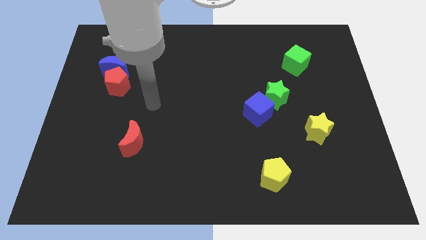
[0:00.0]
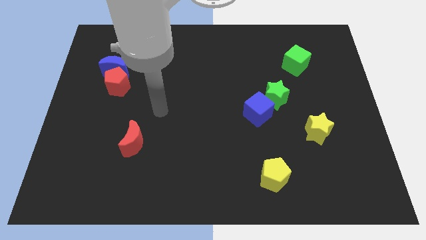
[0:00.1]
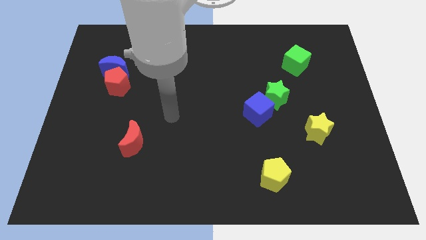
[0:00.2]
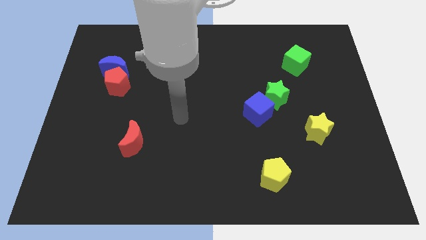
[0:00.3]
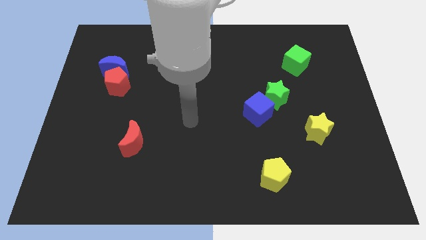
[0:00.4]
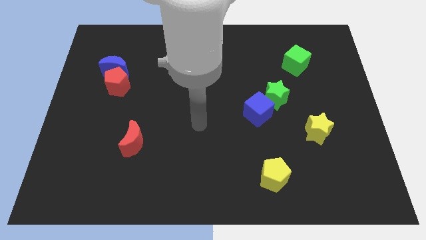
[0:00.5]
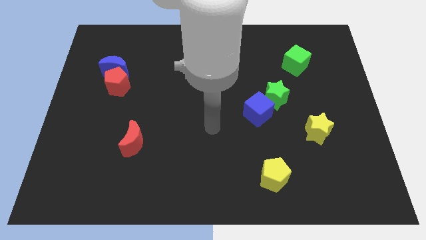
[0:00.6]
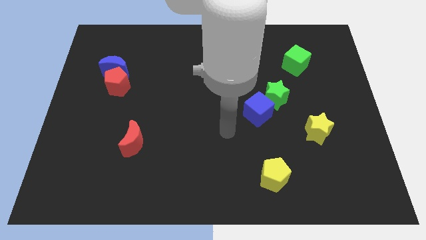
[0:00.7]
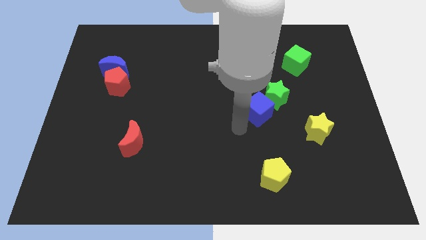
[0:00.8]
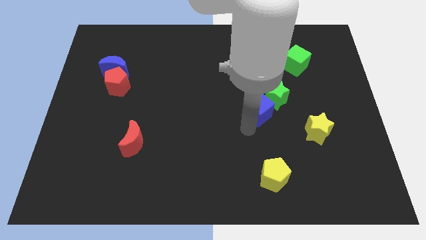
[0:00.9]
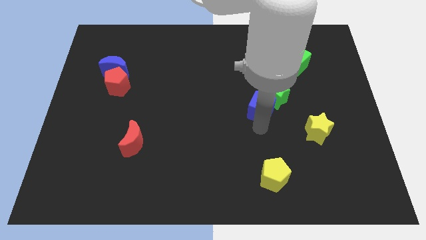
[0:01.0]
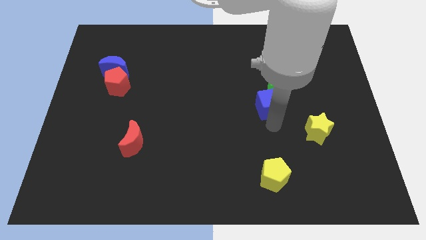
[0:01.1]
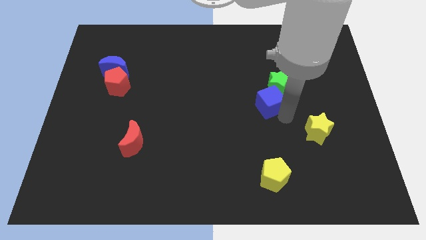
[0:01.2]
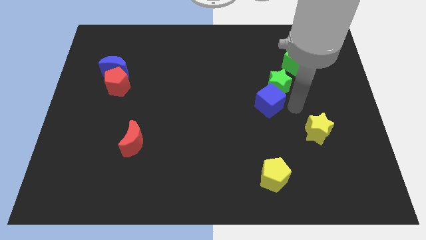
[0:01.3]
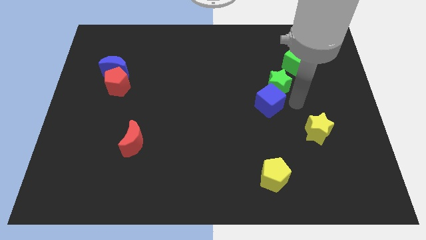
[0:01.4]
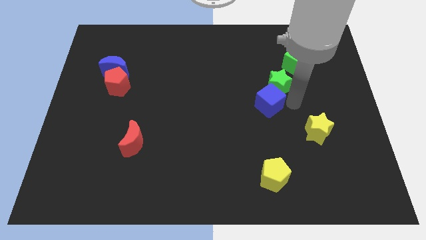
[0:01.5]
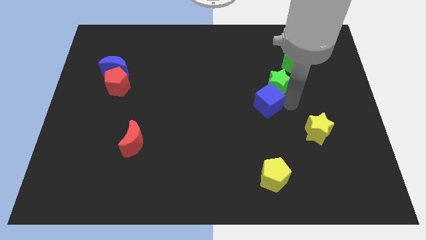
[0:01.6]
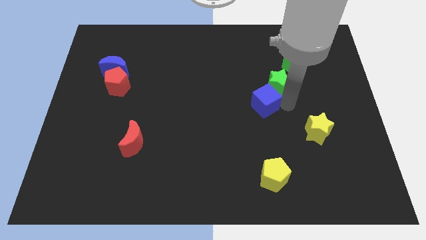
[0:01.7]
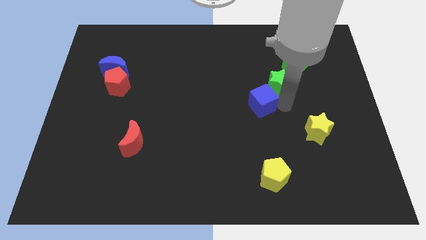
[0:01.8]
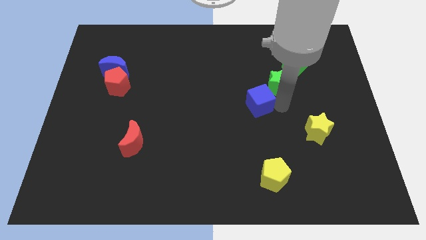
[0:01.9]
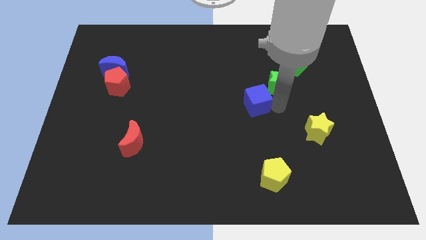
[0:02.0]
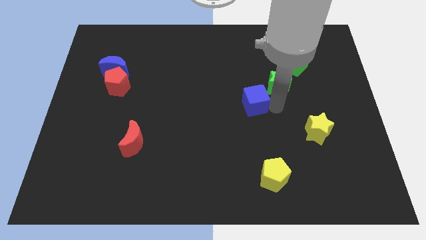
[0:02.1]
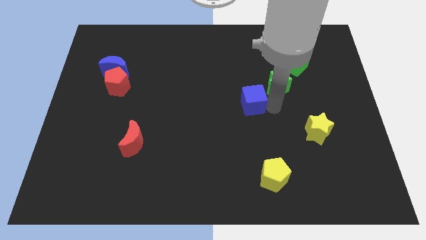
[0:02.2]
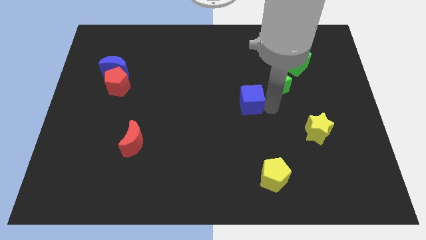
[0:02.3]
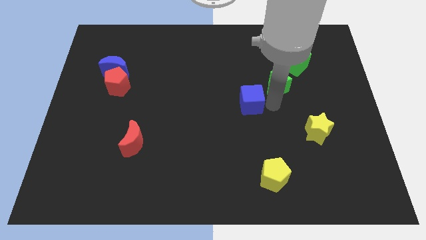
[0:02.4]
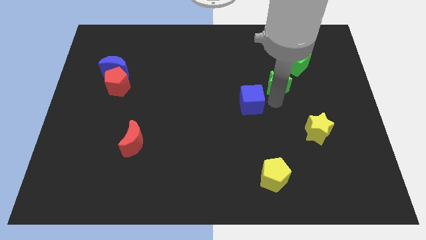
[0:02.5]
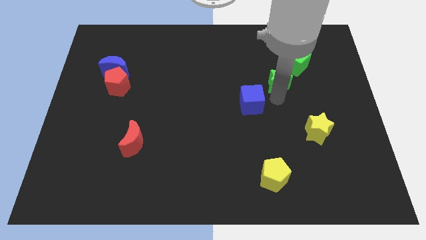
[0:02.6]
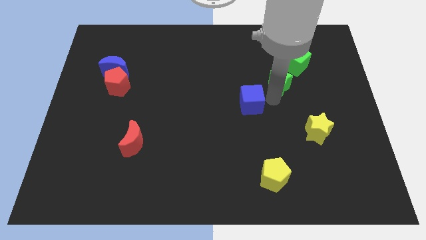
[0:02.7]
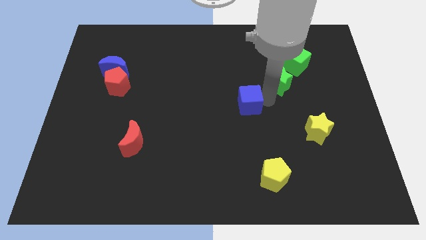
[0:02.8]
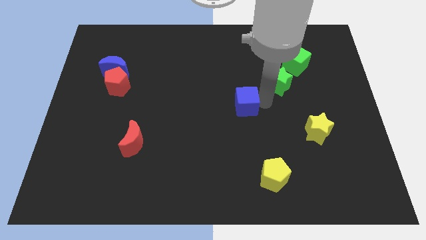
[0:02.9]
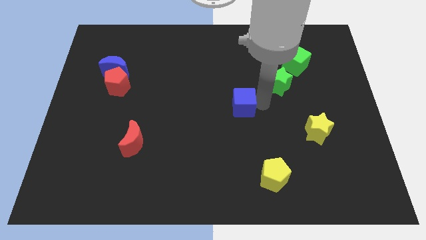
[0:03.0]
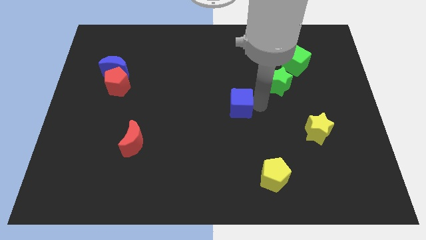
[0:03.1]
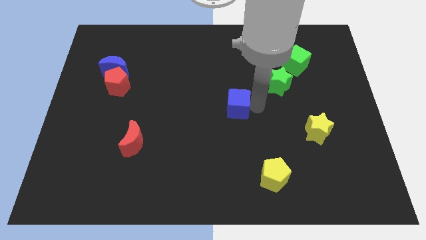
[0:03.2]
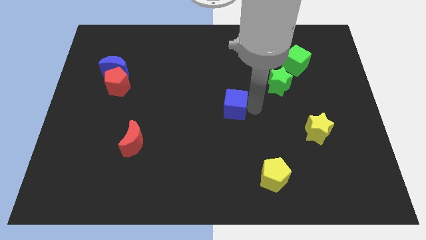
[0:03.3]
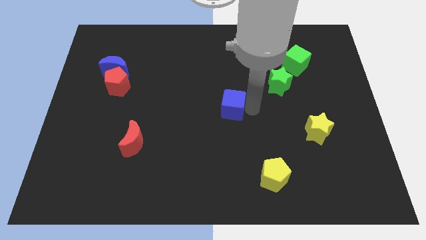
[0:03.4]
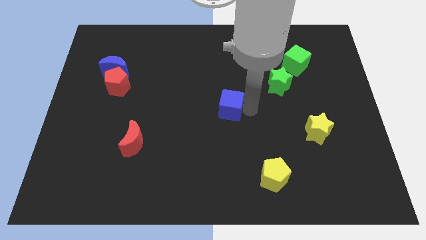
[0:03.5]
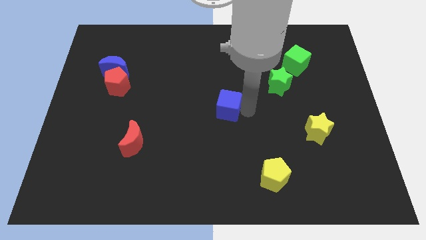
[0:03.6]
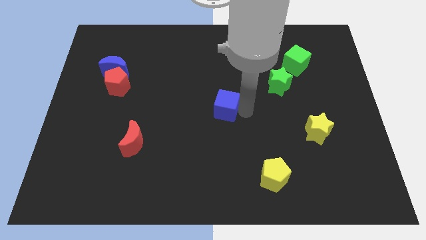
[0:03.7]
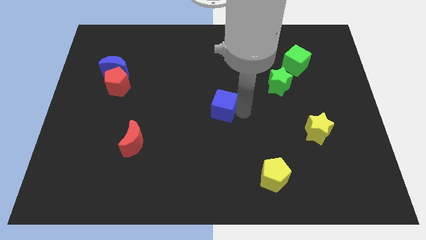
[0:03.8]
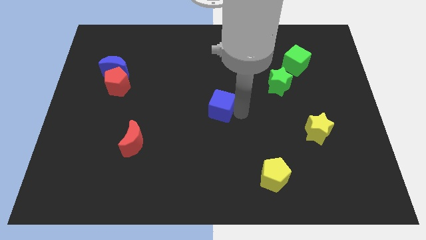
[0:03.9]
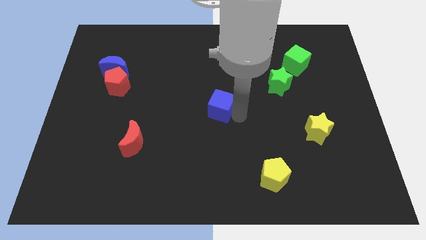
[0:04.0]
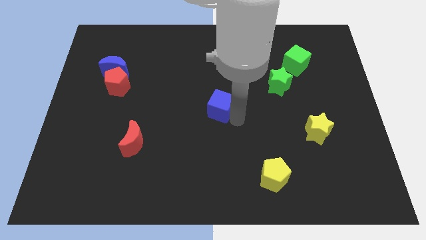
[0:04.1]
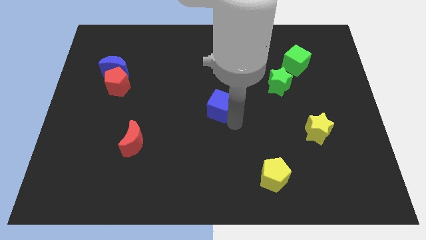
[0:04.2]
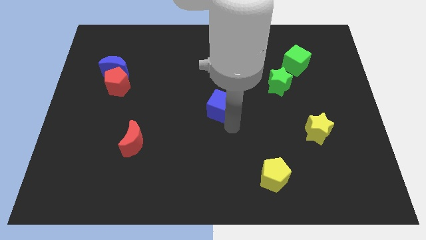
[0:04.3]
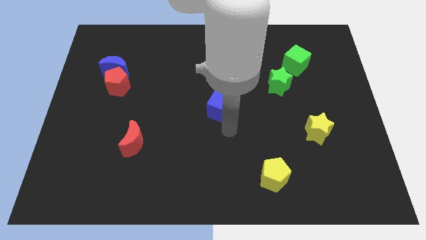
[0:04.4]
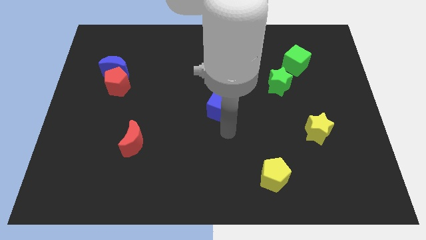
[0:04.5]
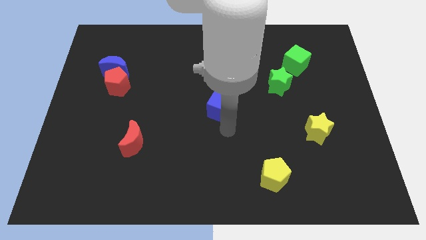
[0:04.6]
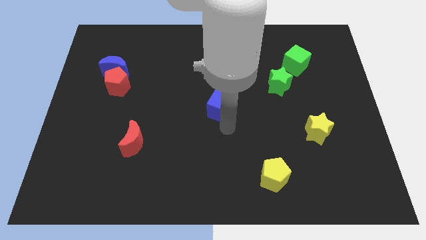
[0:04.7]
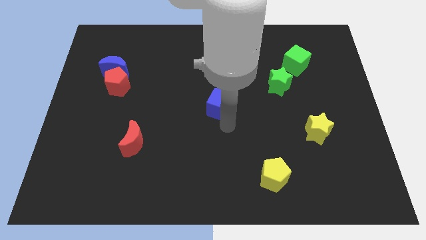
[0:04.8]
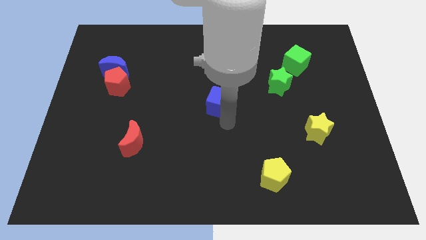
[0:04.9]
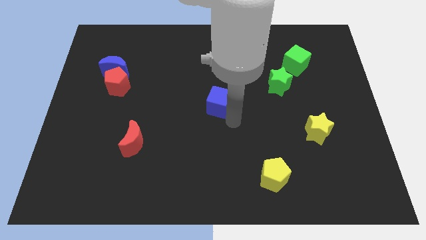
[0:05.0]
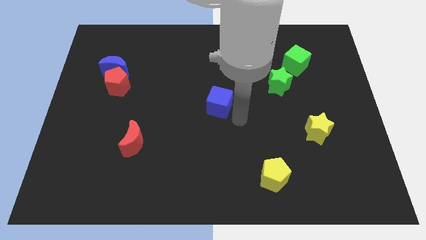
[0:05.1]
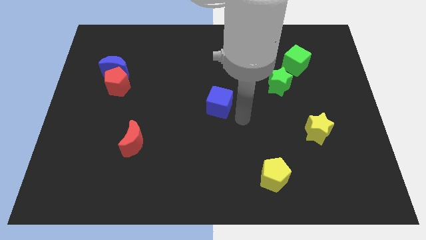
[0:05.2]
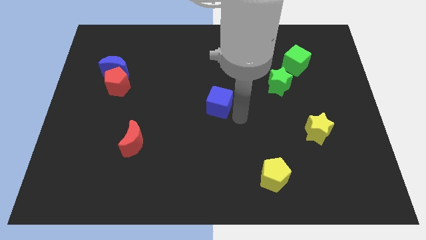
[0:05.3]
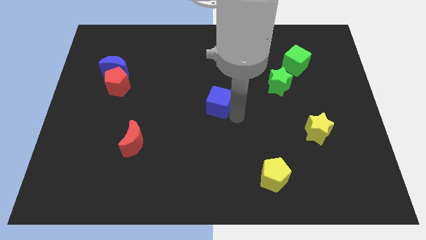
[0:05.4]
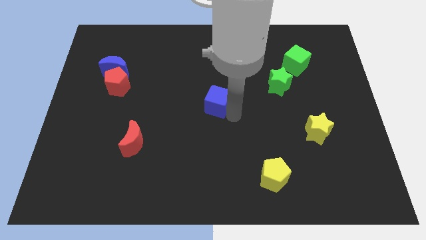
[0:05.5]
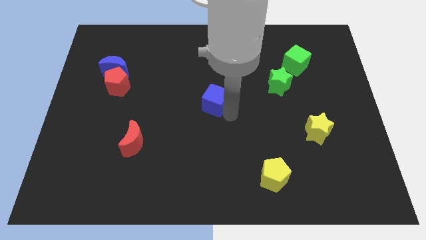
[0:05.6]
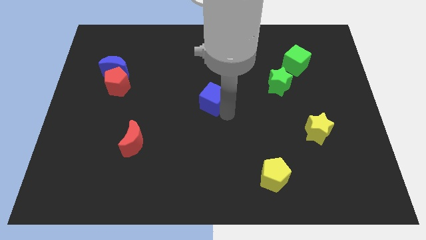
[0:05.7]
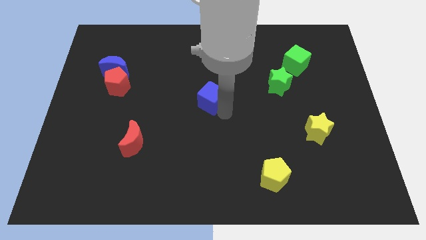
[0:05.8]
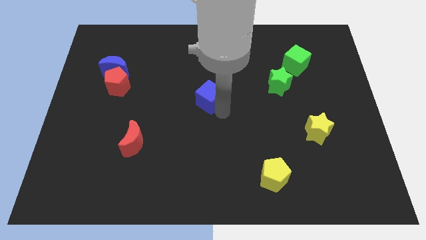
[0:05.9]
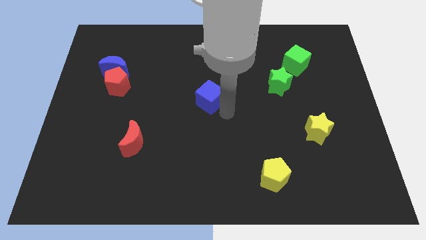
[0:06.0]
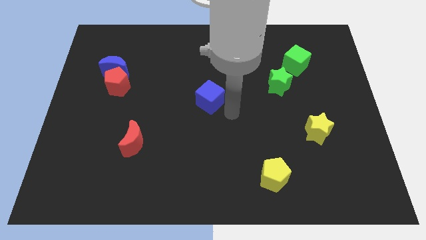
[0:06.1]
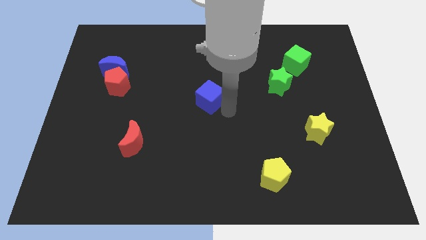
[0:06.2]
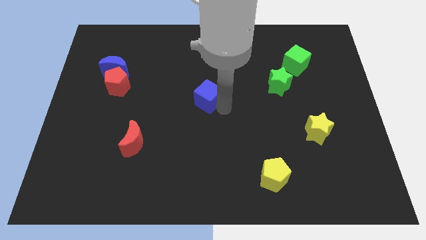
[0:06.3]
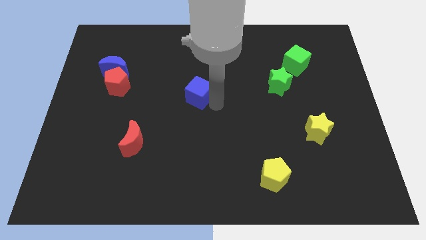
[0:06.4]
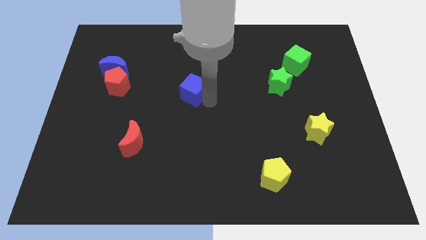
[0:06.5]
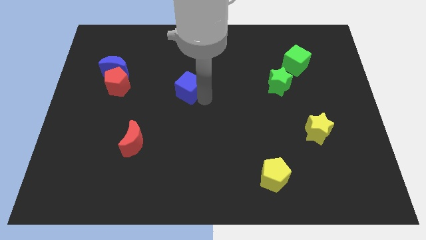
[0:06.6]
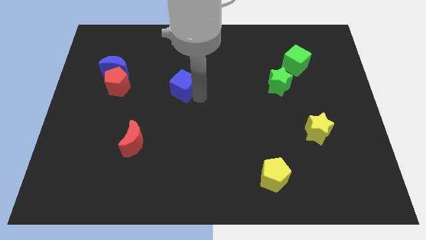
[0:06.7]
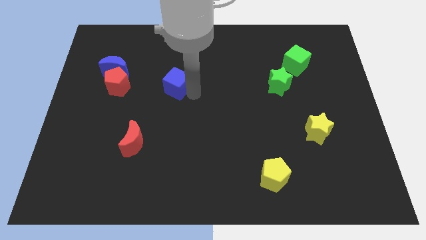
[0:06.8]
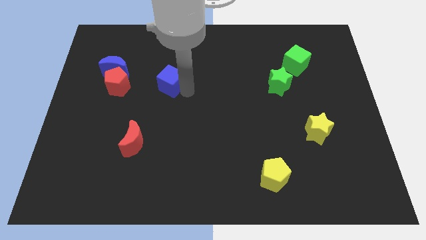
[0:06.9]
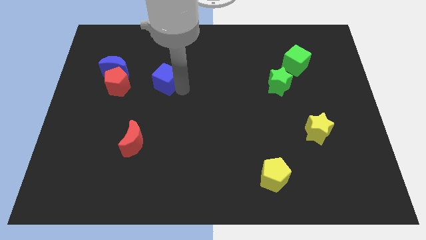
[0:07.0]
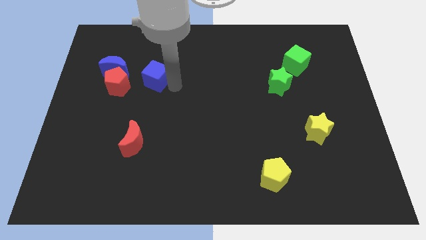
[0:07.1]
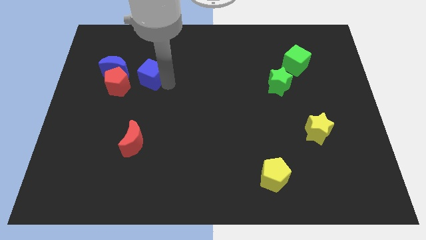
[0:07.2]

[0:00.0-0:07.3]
put the blue cube to the top right of the red pentagon

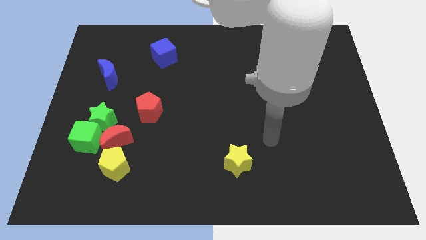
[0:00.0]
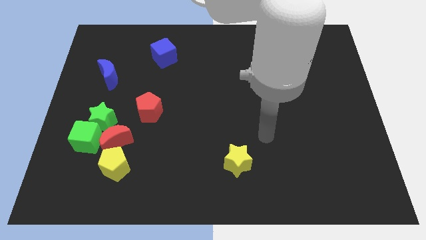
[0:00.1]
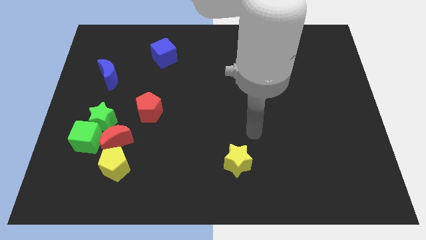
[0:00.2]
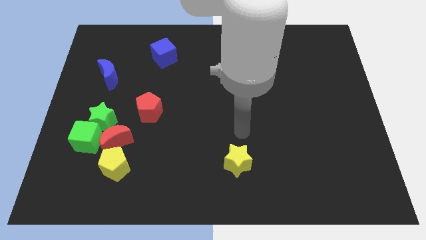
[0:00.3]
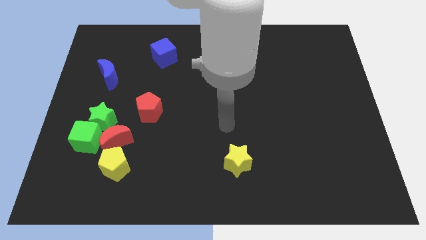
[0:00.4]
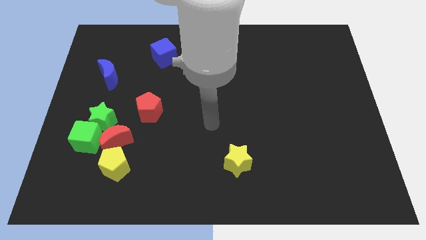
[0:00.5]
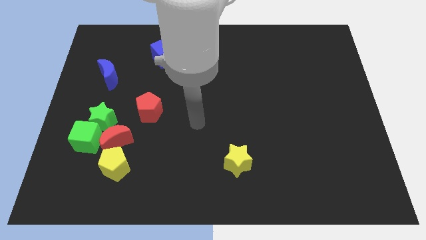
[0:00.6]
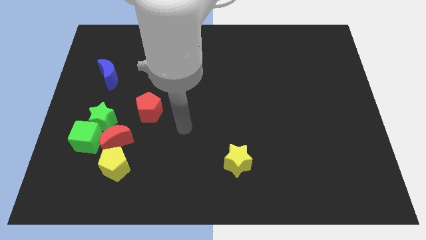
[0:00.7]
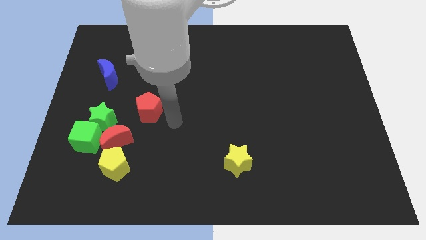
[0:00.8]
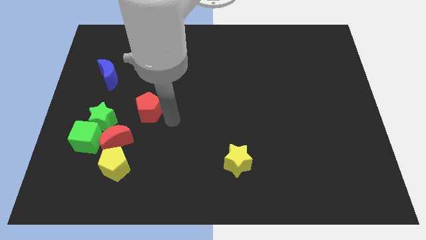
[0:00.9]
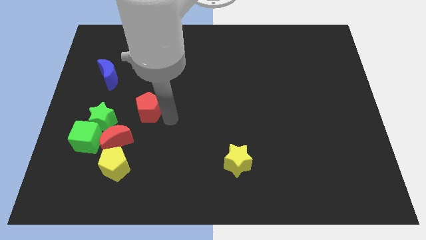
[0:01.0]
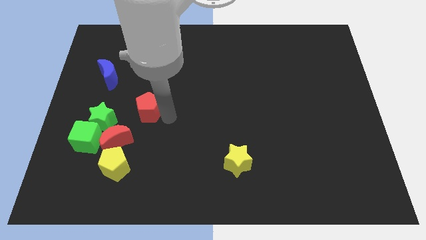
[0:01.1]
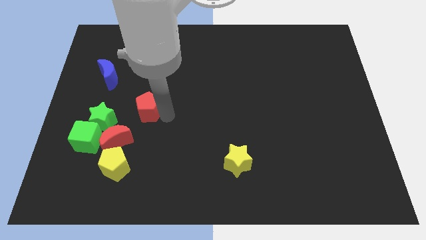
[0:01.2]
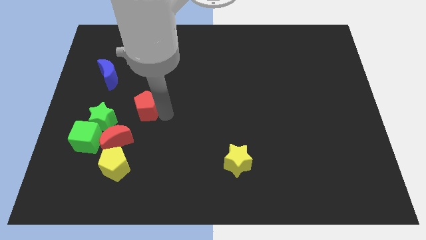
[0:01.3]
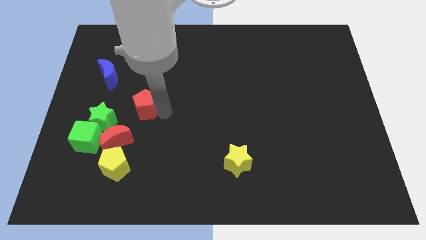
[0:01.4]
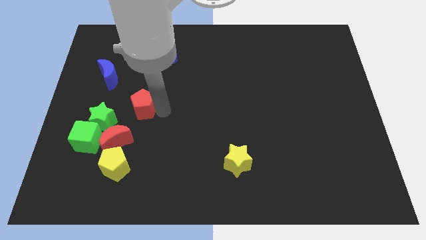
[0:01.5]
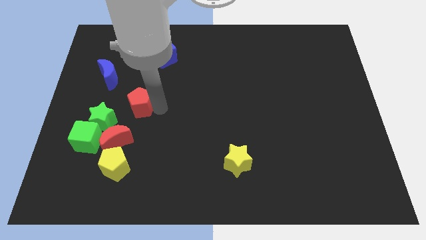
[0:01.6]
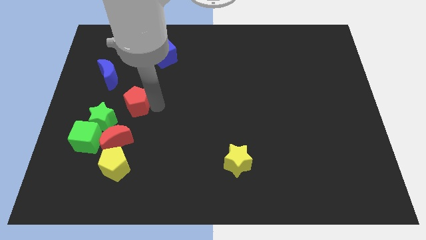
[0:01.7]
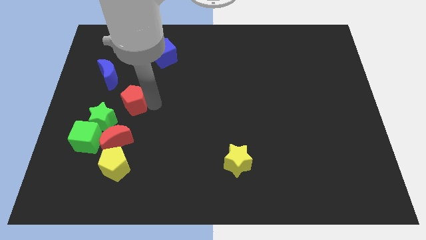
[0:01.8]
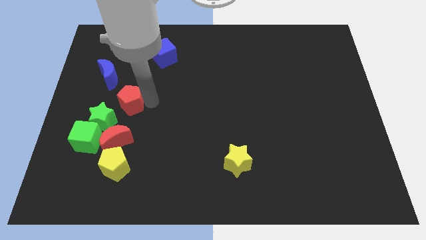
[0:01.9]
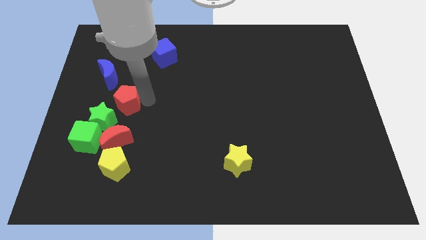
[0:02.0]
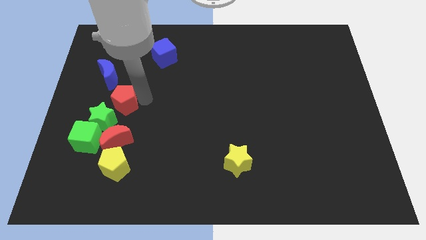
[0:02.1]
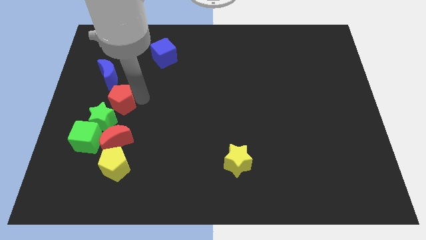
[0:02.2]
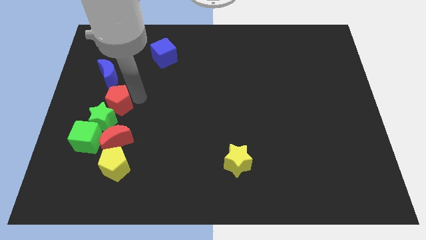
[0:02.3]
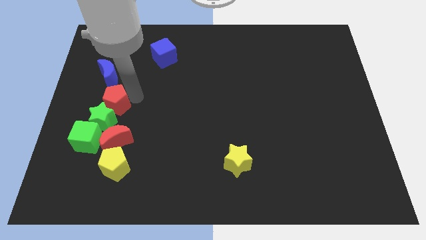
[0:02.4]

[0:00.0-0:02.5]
move the red pentagon above the green cube
